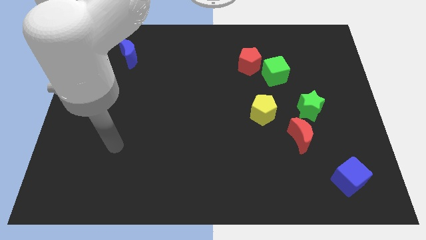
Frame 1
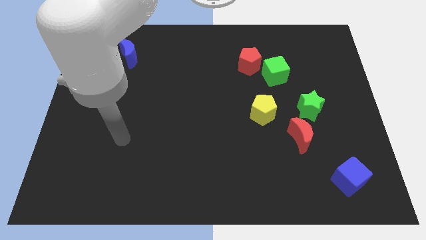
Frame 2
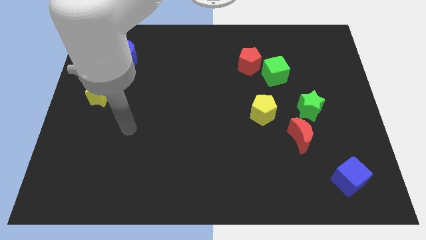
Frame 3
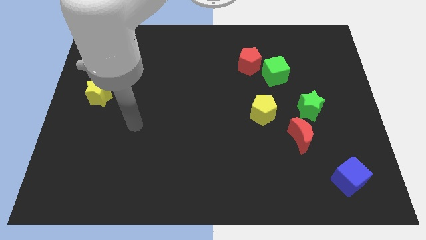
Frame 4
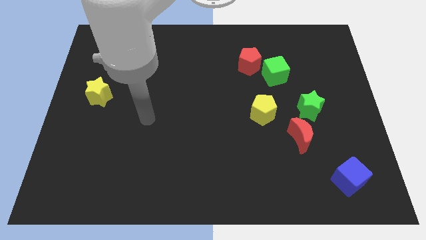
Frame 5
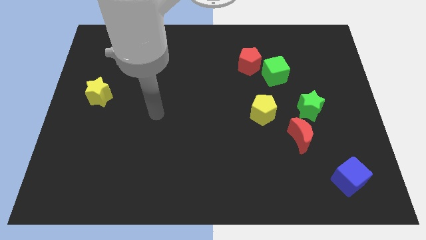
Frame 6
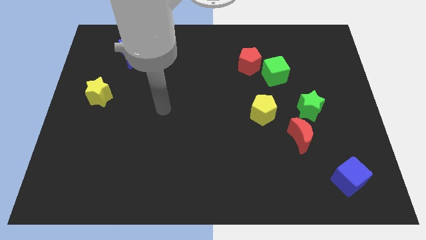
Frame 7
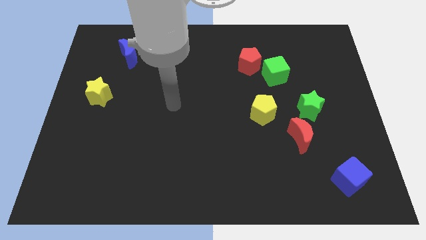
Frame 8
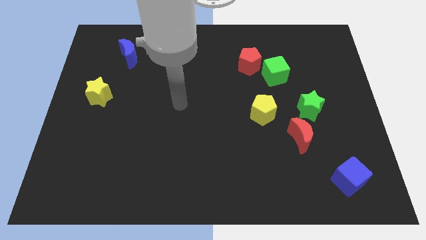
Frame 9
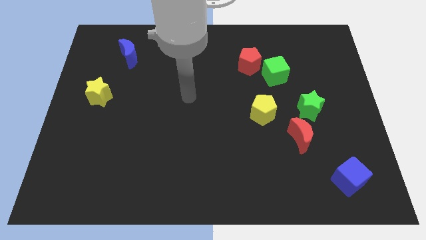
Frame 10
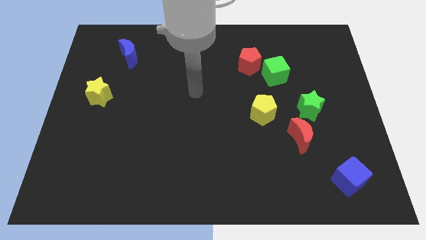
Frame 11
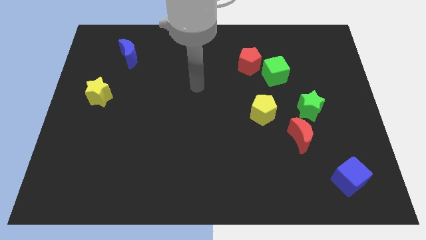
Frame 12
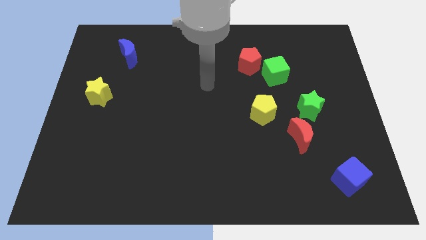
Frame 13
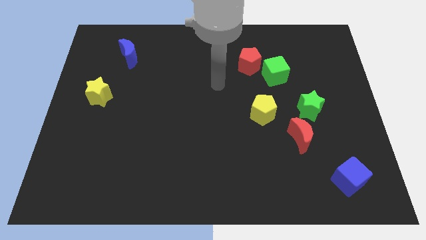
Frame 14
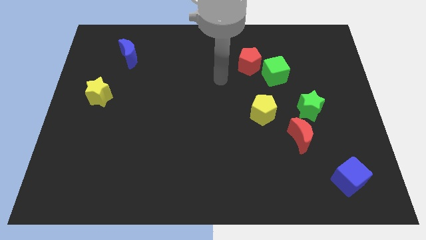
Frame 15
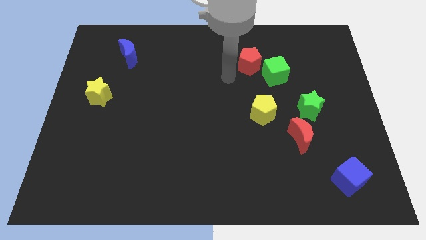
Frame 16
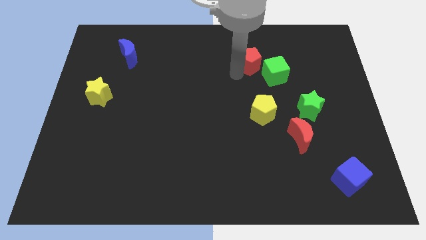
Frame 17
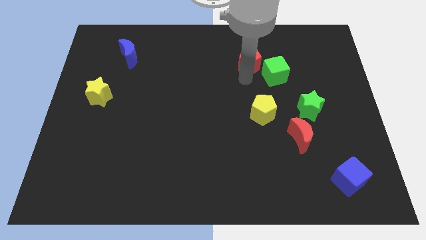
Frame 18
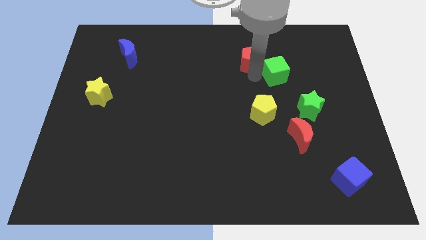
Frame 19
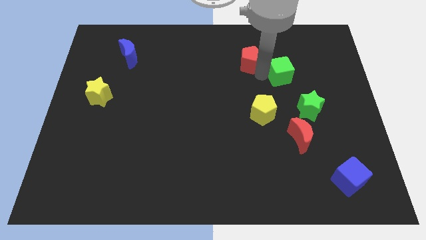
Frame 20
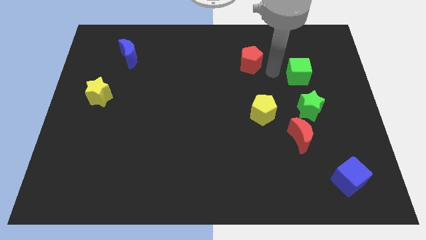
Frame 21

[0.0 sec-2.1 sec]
pull the red pentagon apart from the green cube

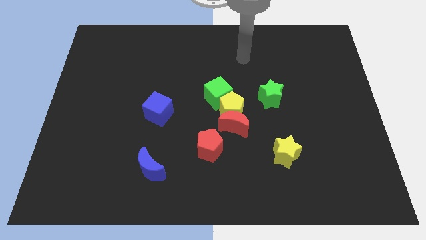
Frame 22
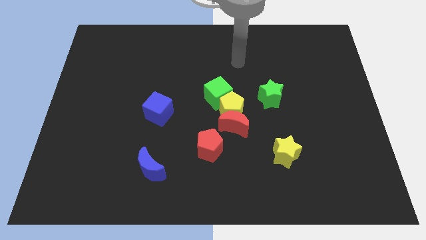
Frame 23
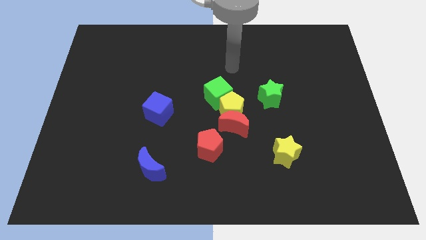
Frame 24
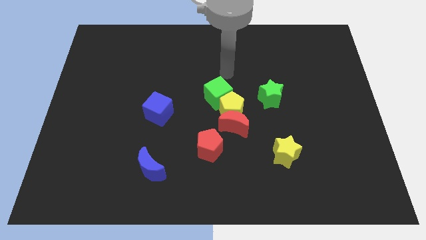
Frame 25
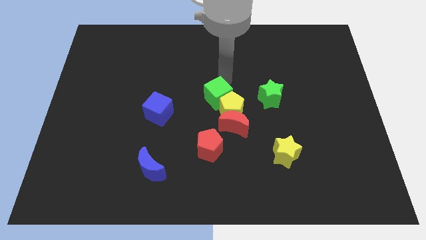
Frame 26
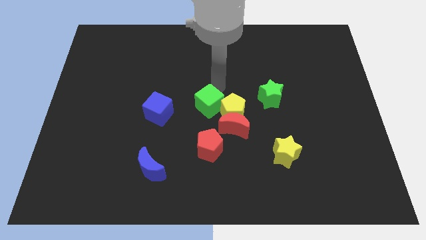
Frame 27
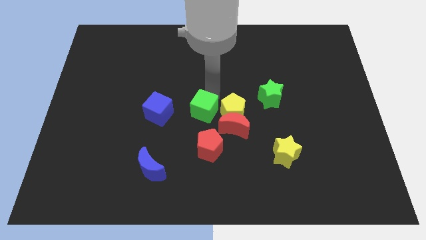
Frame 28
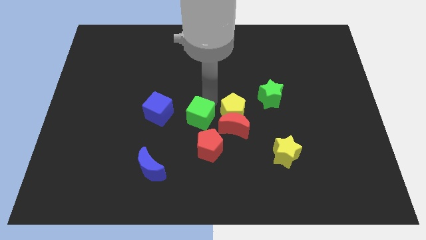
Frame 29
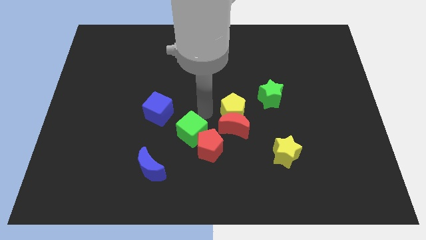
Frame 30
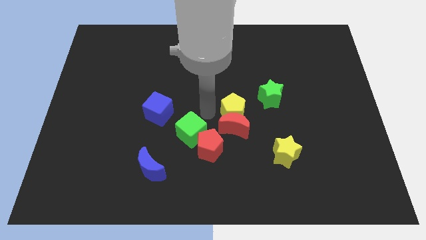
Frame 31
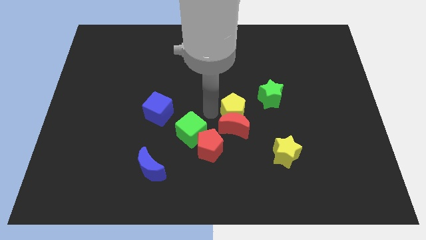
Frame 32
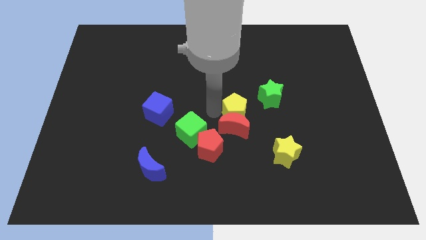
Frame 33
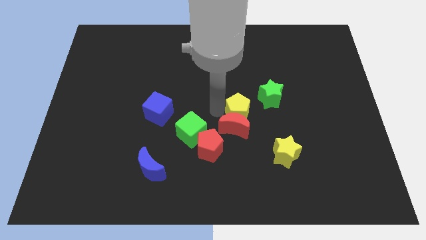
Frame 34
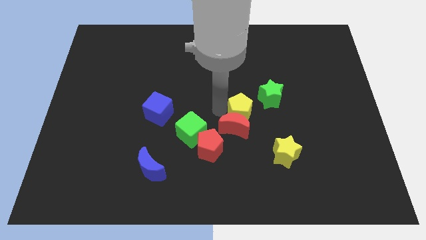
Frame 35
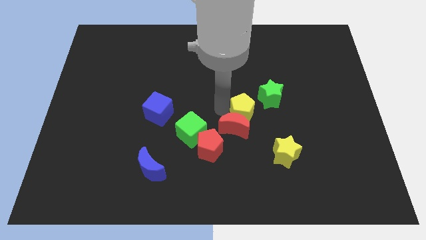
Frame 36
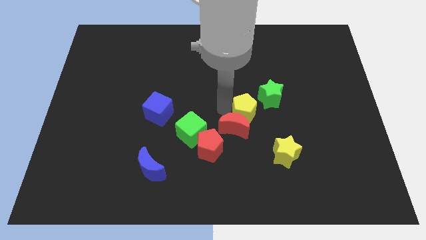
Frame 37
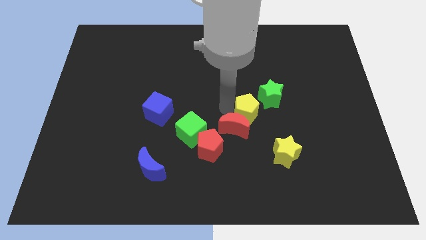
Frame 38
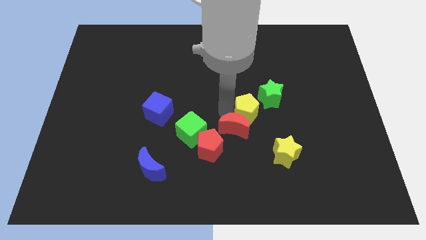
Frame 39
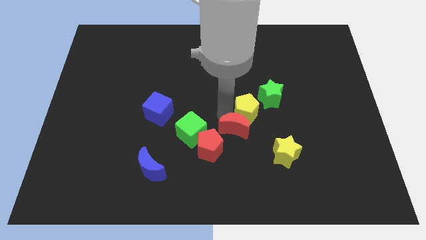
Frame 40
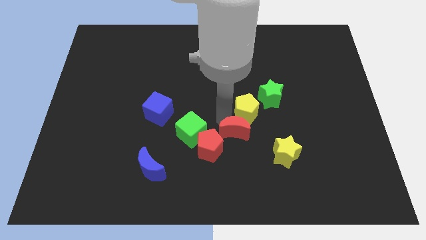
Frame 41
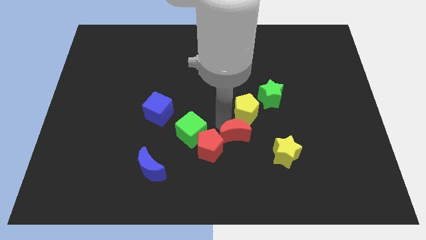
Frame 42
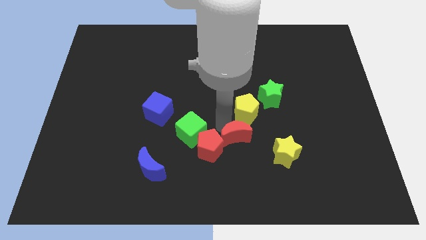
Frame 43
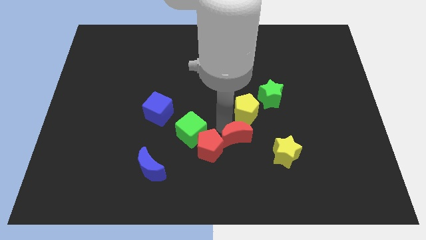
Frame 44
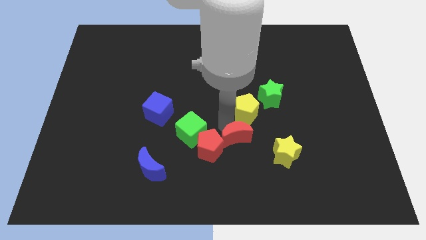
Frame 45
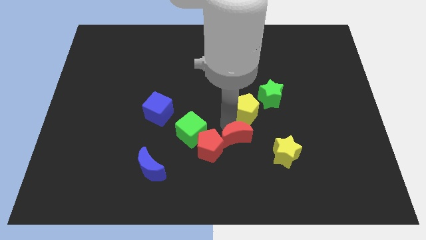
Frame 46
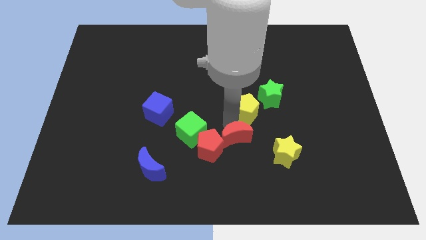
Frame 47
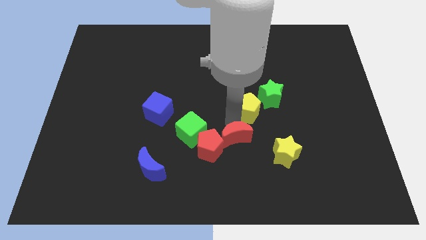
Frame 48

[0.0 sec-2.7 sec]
move the yellow pentagon away from the red moon and green cube

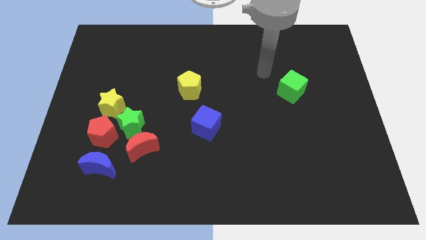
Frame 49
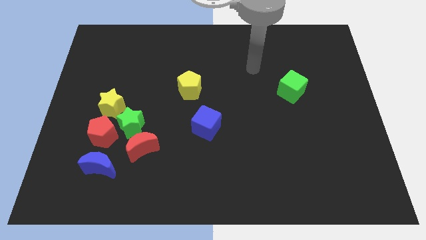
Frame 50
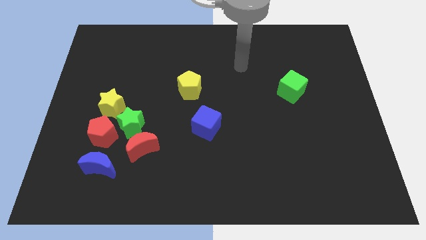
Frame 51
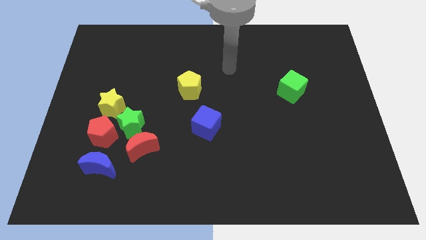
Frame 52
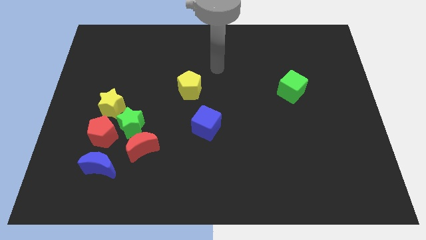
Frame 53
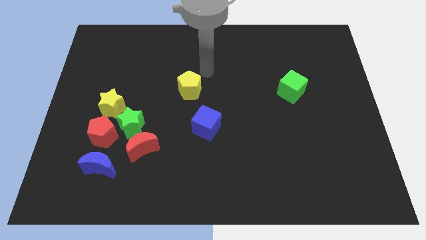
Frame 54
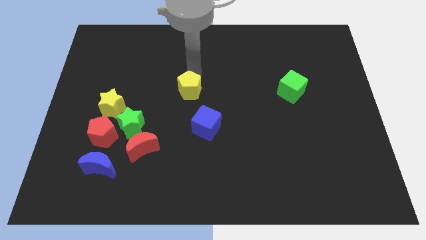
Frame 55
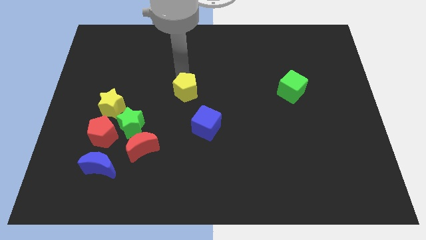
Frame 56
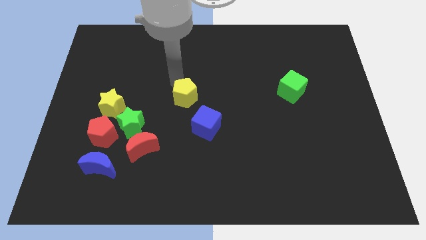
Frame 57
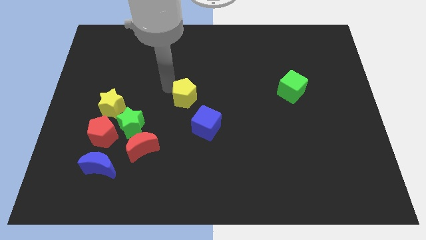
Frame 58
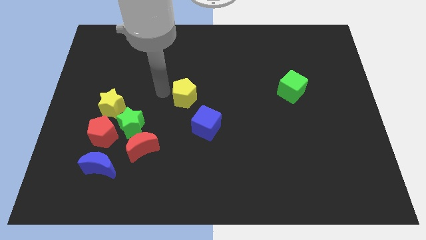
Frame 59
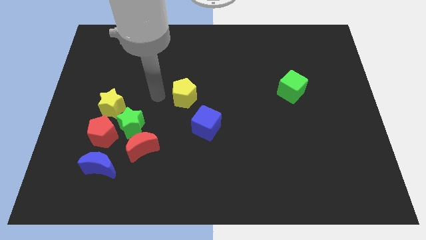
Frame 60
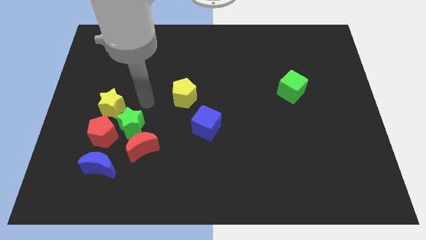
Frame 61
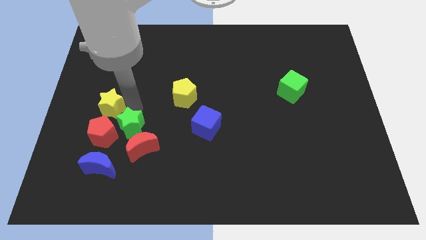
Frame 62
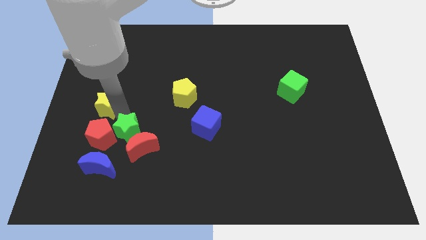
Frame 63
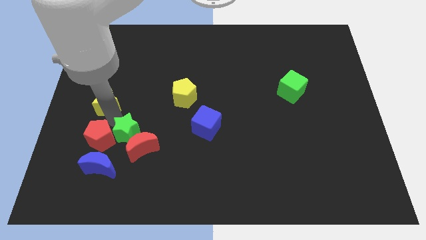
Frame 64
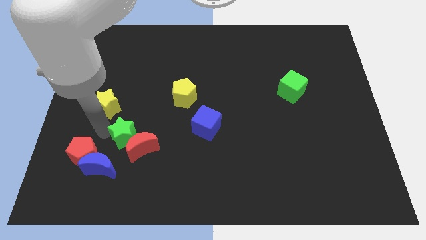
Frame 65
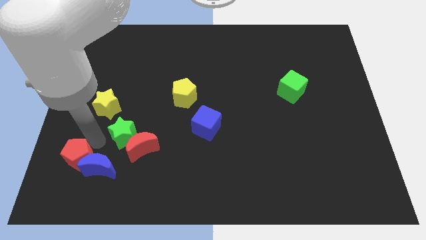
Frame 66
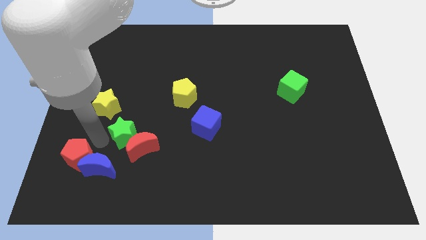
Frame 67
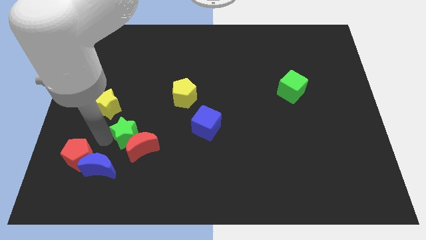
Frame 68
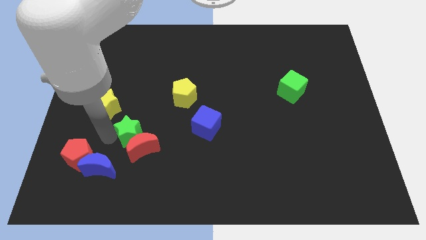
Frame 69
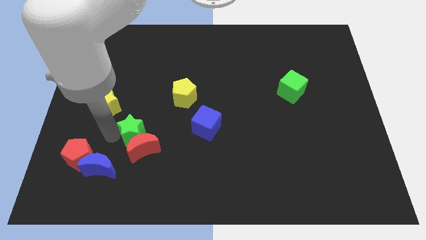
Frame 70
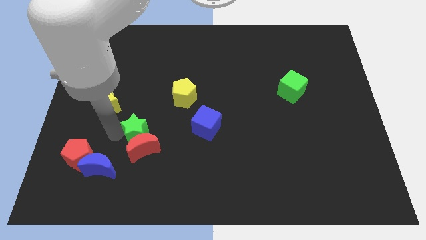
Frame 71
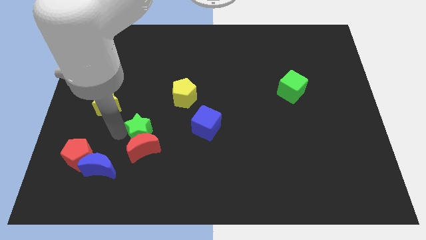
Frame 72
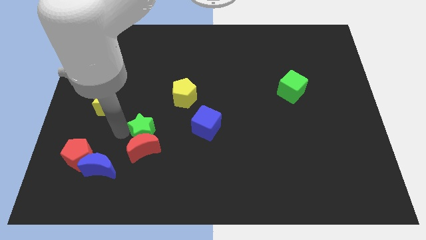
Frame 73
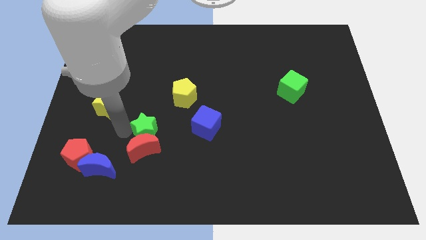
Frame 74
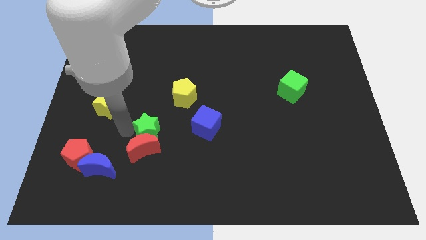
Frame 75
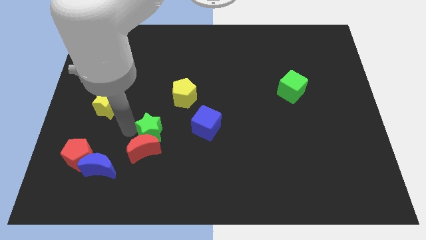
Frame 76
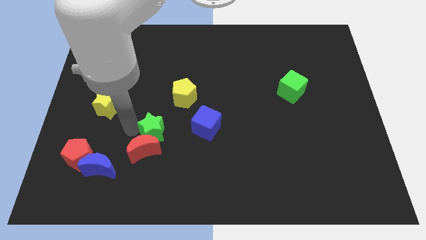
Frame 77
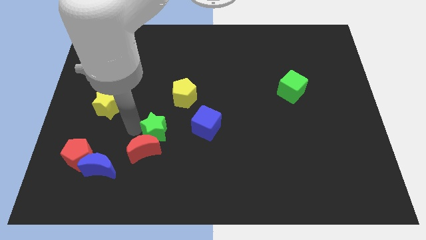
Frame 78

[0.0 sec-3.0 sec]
separate the green star from the group

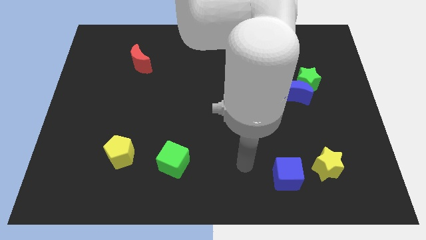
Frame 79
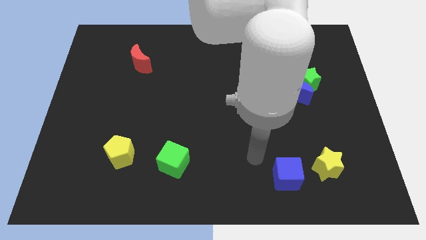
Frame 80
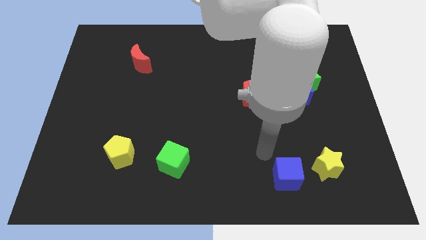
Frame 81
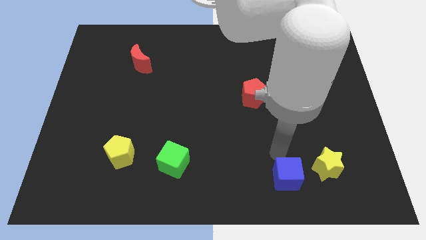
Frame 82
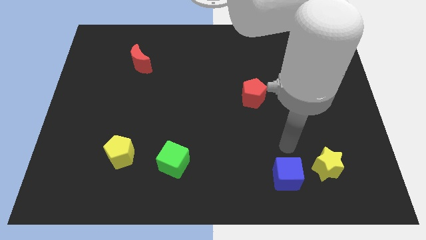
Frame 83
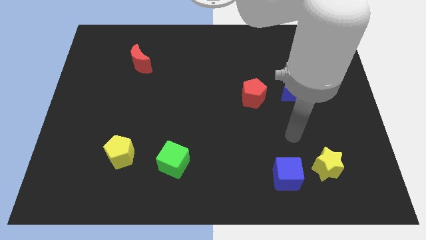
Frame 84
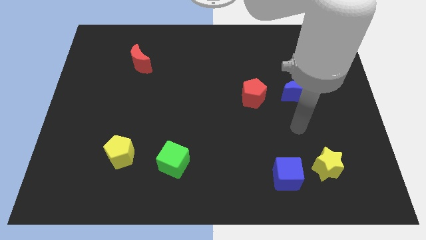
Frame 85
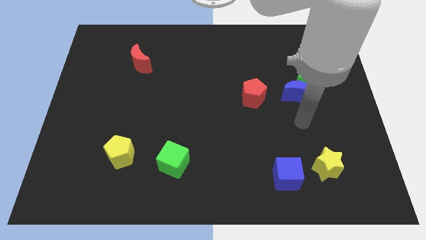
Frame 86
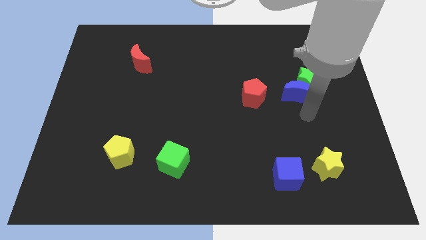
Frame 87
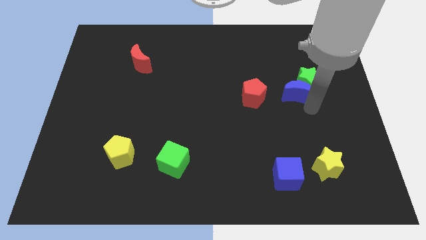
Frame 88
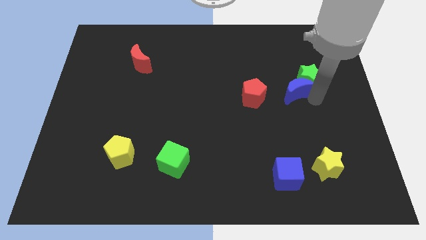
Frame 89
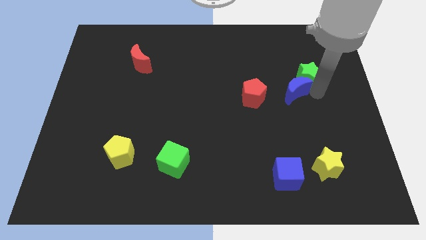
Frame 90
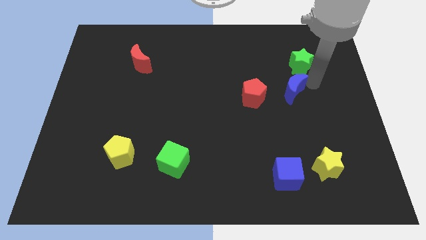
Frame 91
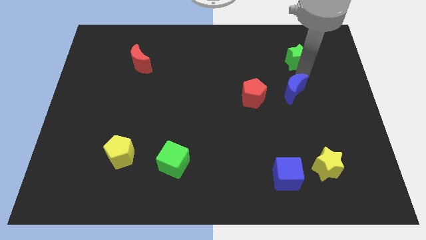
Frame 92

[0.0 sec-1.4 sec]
separate the blue moon from the green star

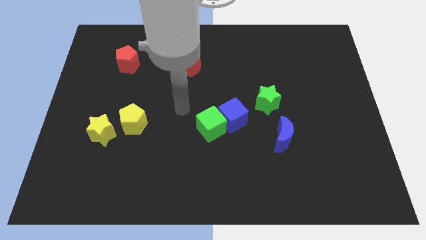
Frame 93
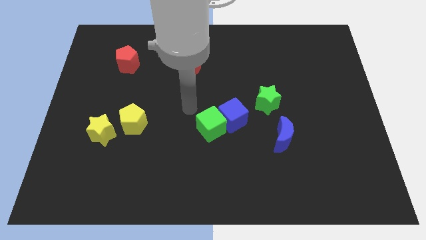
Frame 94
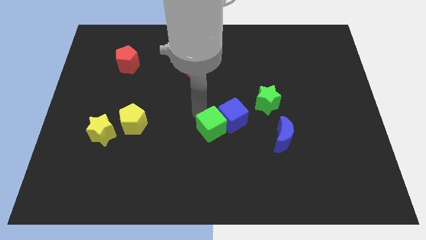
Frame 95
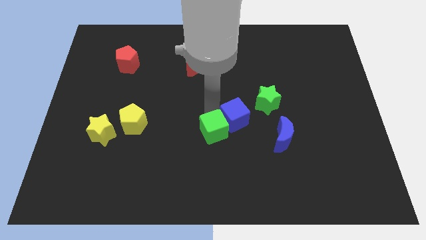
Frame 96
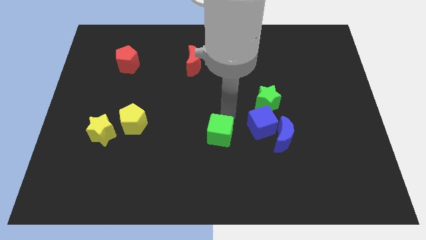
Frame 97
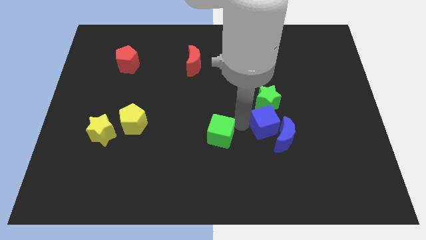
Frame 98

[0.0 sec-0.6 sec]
pull the green cube apart from the blue cube
